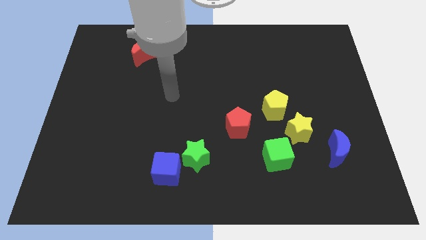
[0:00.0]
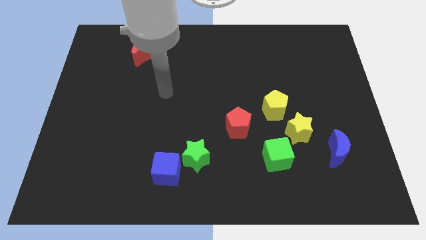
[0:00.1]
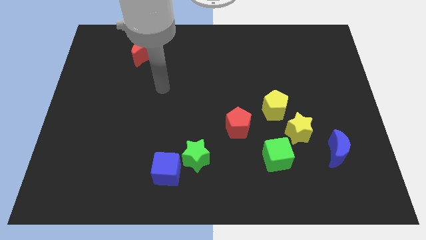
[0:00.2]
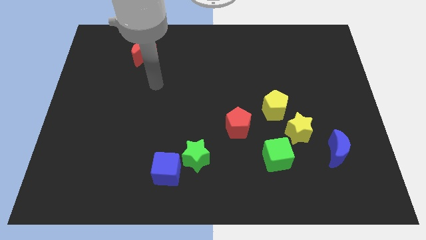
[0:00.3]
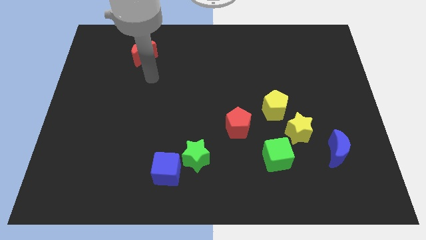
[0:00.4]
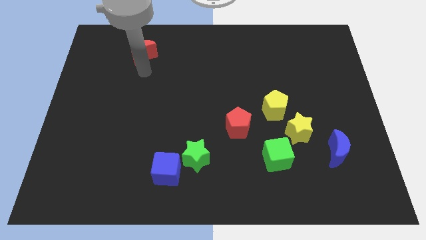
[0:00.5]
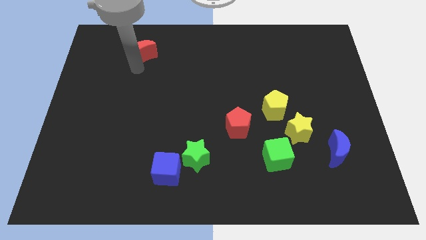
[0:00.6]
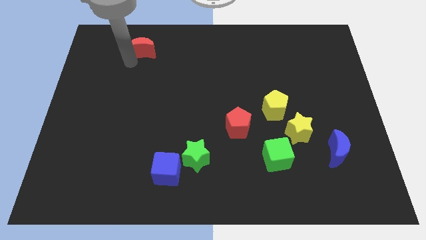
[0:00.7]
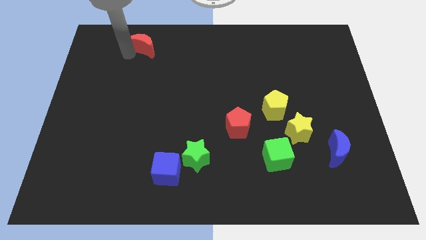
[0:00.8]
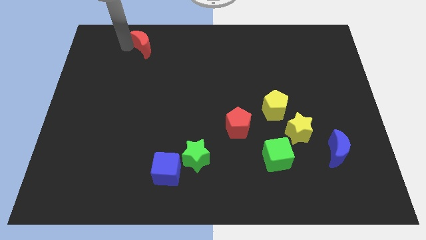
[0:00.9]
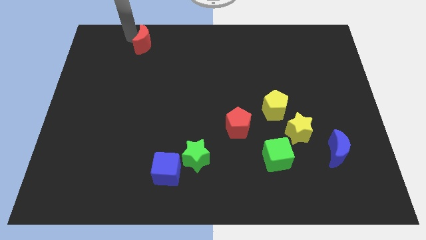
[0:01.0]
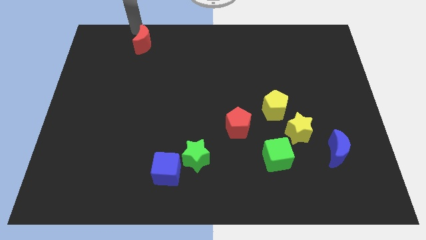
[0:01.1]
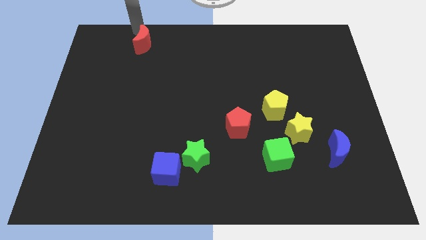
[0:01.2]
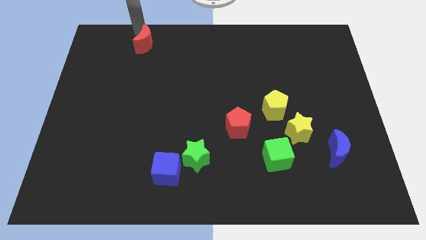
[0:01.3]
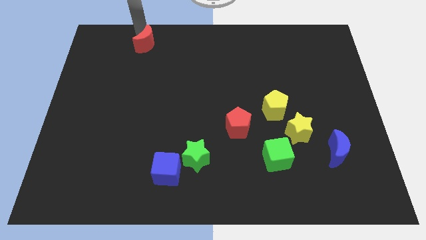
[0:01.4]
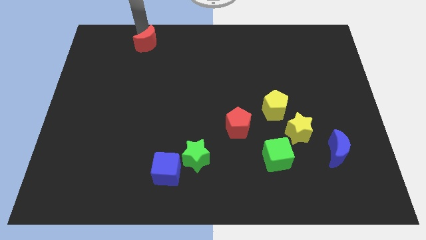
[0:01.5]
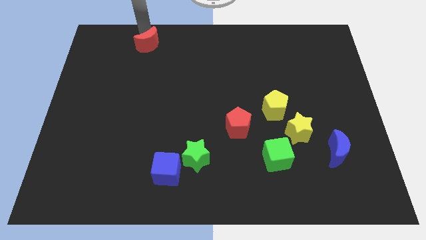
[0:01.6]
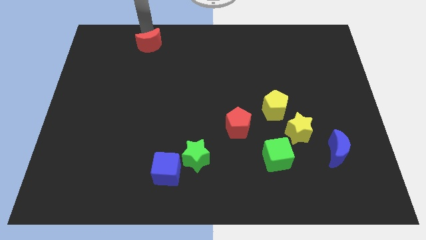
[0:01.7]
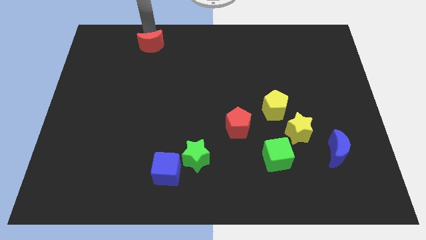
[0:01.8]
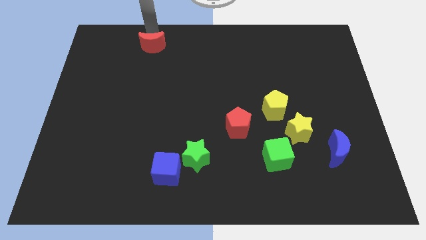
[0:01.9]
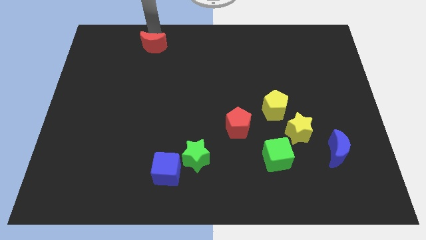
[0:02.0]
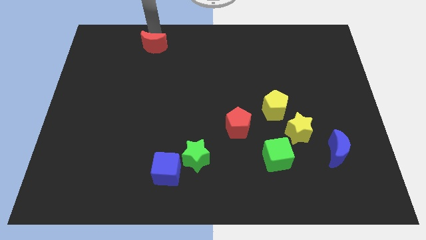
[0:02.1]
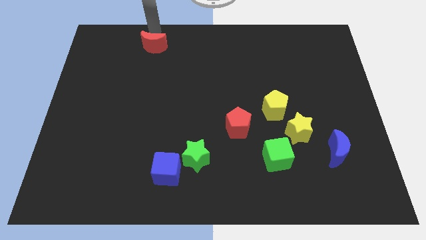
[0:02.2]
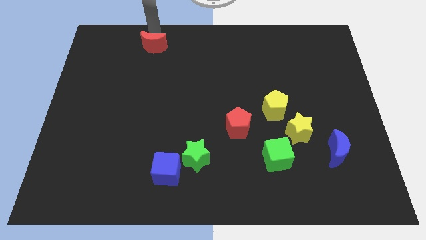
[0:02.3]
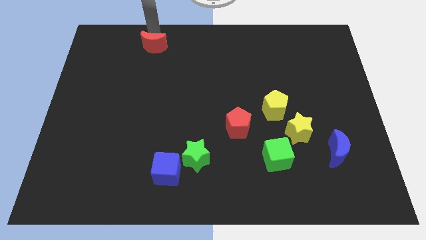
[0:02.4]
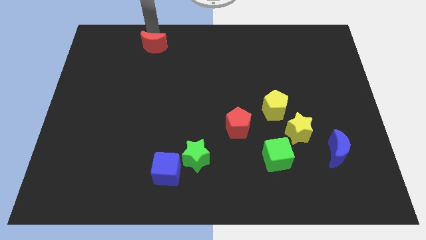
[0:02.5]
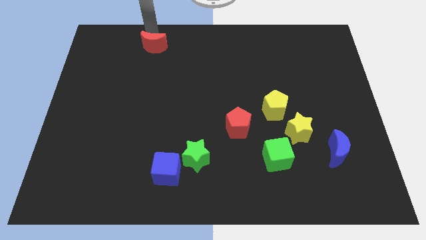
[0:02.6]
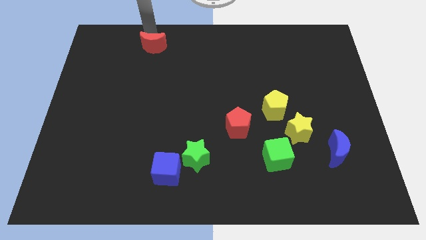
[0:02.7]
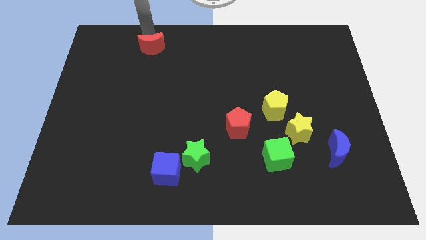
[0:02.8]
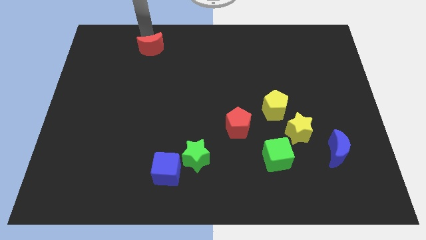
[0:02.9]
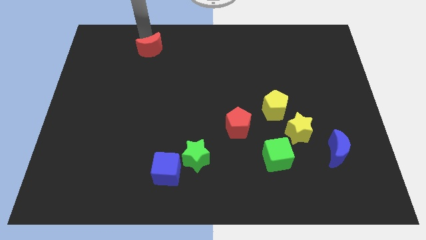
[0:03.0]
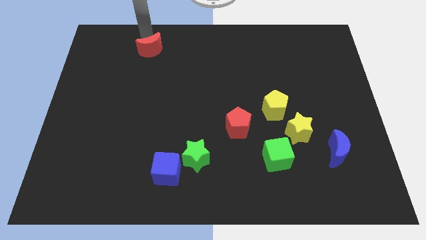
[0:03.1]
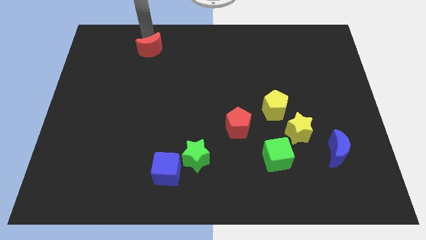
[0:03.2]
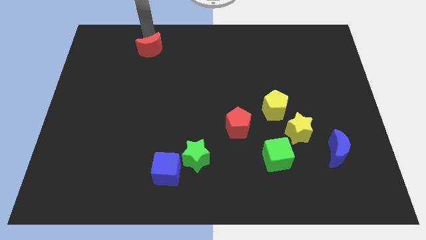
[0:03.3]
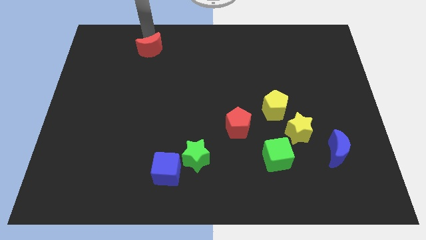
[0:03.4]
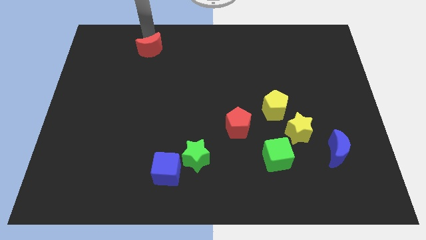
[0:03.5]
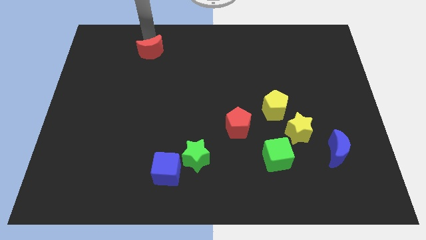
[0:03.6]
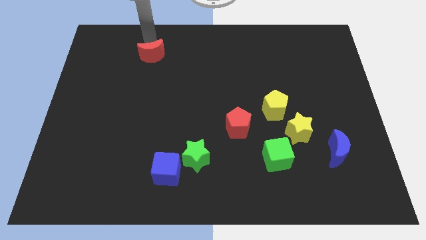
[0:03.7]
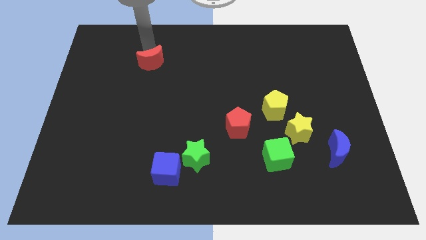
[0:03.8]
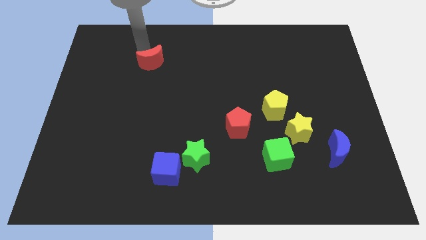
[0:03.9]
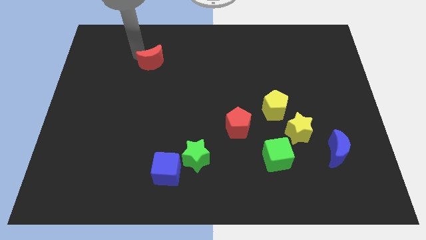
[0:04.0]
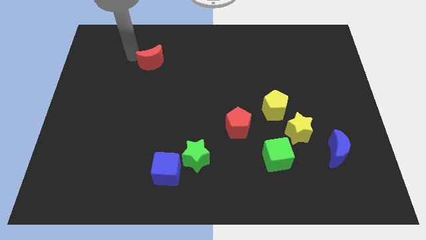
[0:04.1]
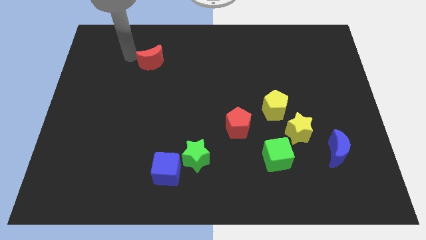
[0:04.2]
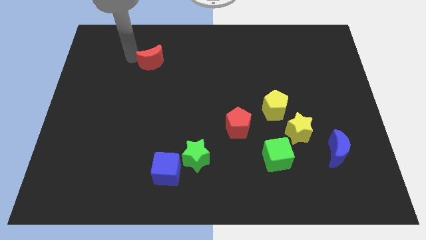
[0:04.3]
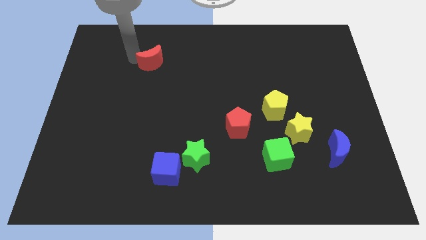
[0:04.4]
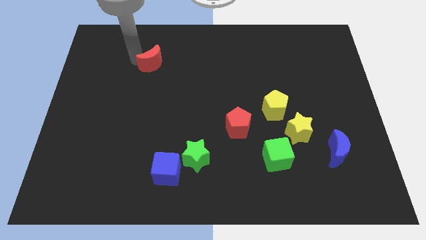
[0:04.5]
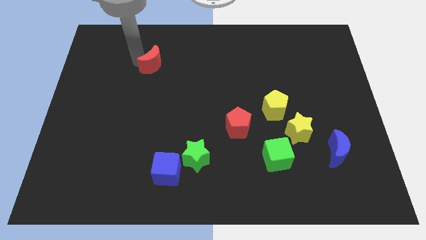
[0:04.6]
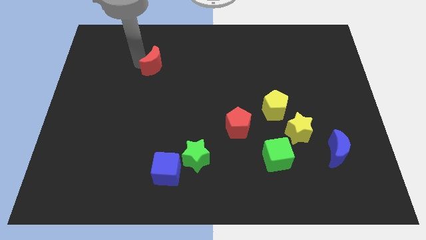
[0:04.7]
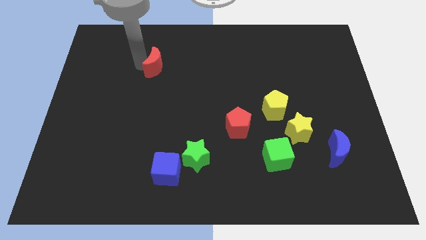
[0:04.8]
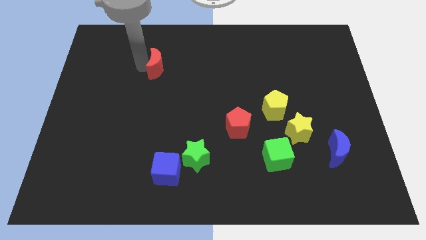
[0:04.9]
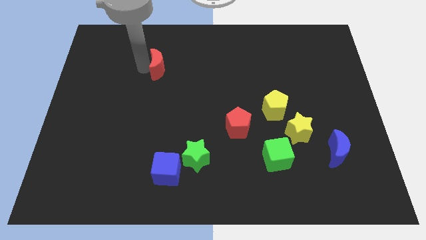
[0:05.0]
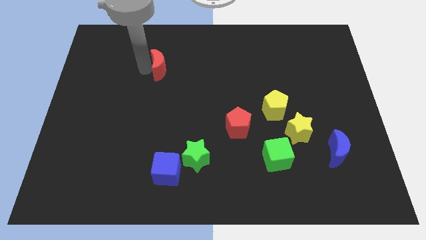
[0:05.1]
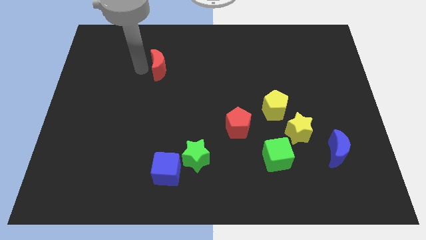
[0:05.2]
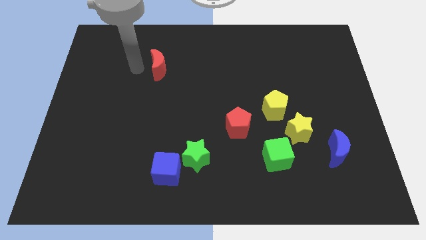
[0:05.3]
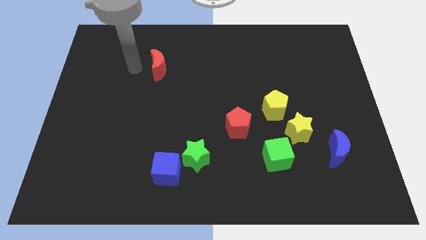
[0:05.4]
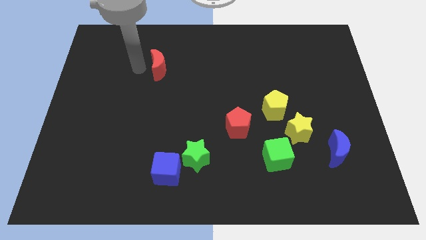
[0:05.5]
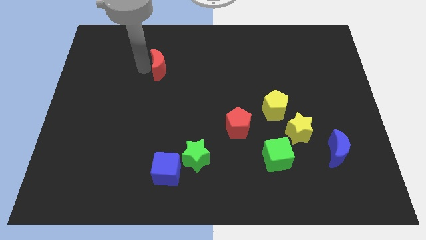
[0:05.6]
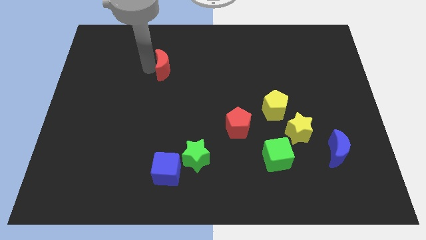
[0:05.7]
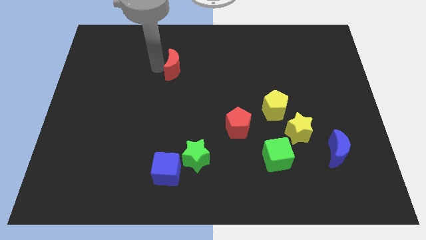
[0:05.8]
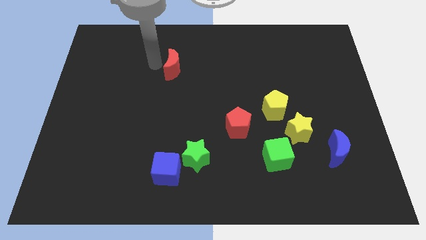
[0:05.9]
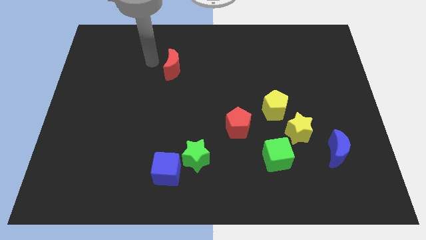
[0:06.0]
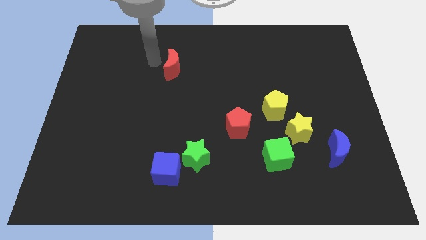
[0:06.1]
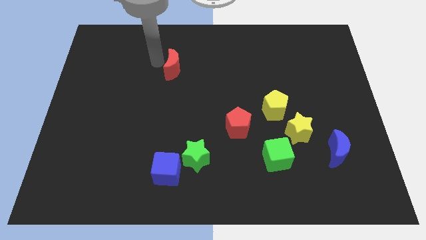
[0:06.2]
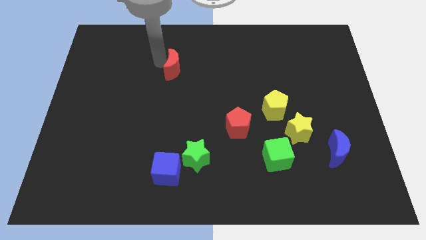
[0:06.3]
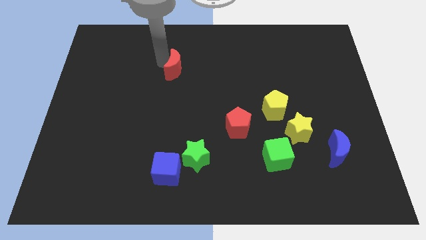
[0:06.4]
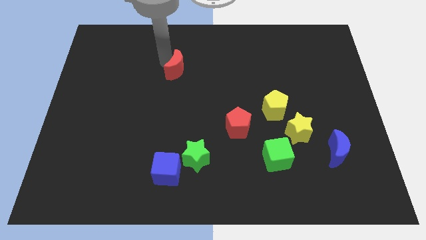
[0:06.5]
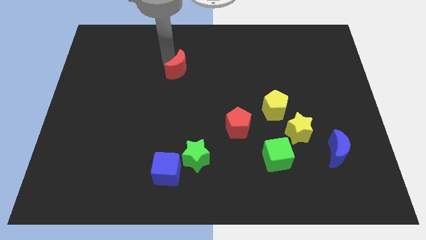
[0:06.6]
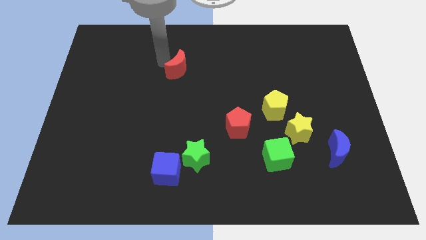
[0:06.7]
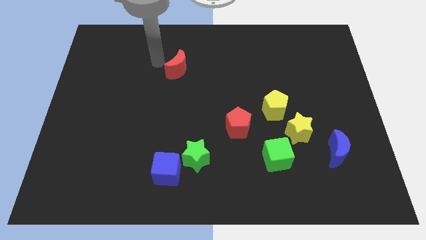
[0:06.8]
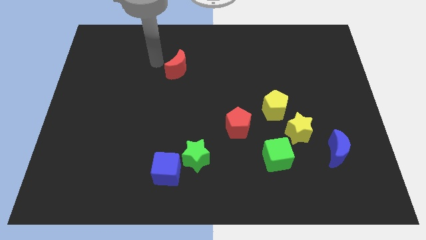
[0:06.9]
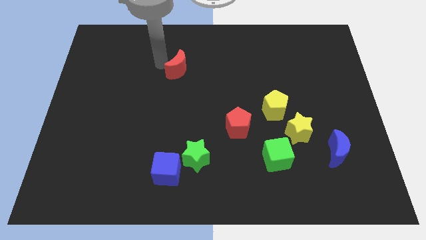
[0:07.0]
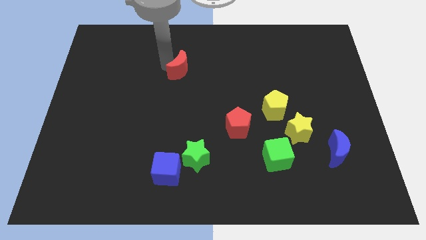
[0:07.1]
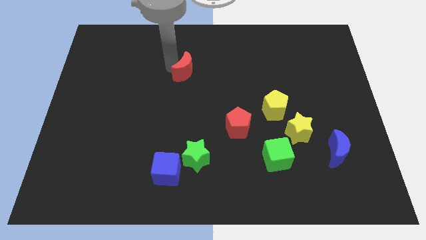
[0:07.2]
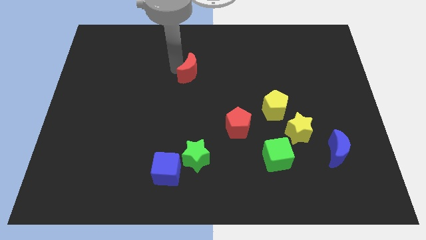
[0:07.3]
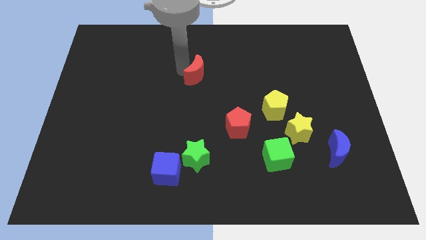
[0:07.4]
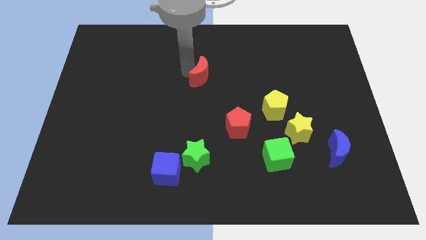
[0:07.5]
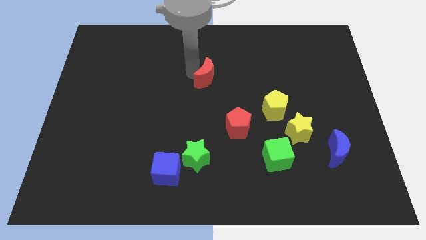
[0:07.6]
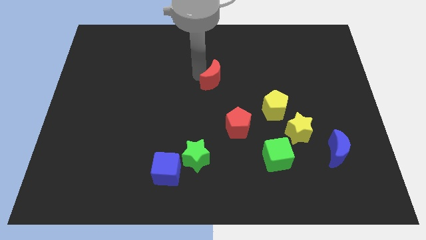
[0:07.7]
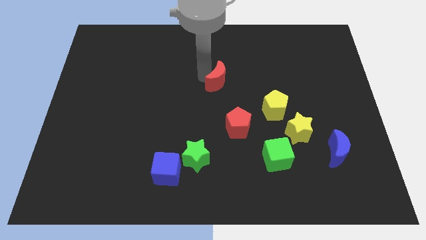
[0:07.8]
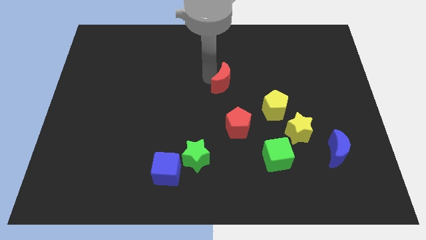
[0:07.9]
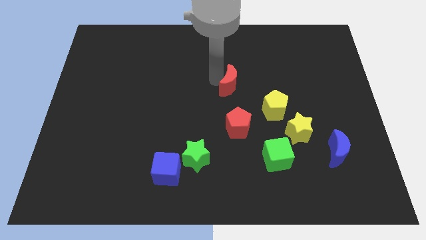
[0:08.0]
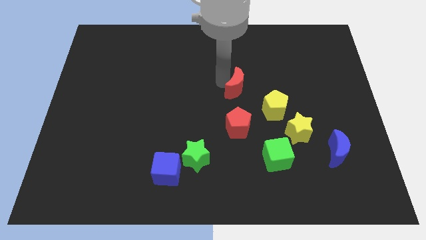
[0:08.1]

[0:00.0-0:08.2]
push the red moon diagonally up and to the left of the yellow pentagon
